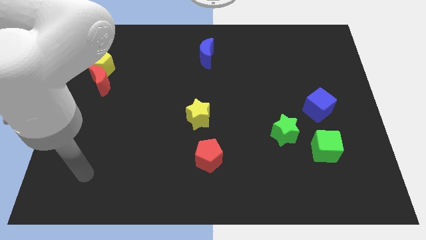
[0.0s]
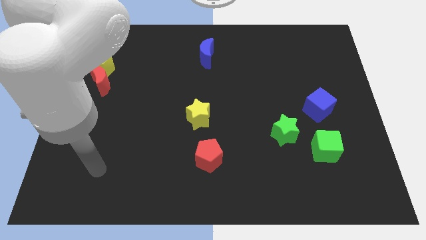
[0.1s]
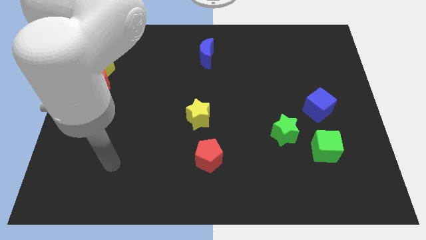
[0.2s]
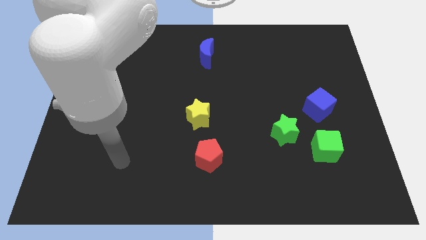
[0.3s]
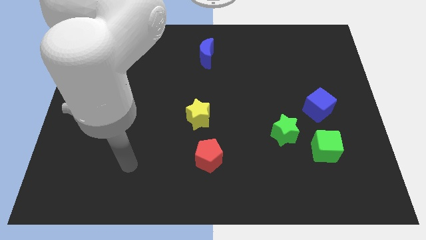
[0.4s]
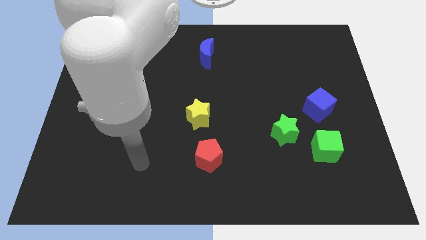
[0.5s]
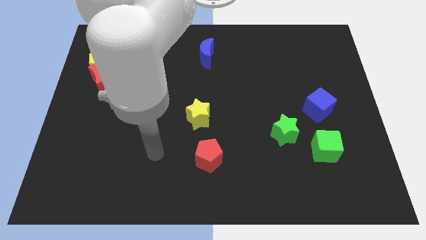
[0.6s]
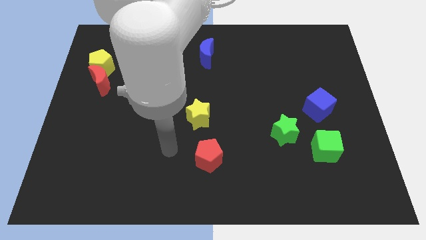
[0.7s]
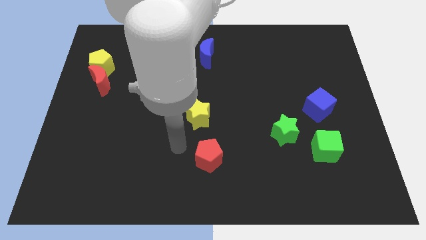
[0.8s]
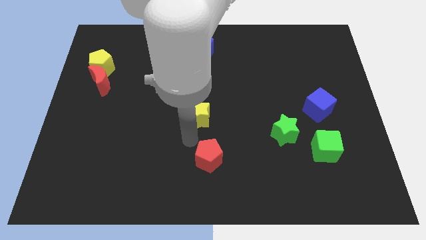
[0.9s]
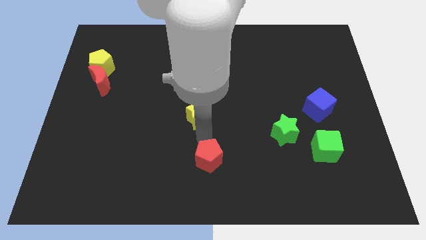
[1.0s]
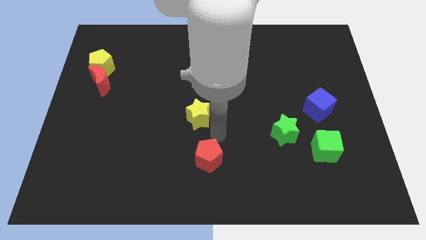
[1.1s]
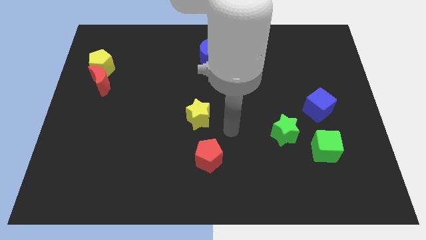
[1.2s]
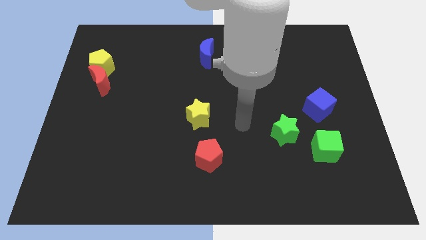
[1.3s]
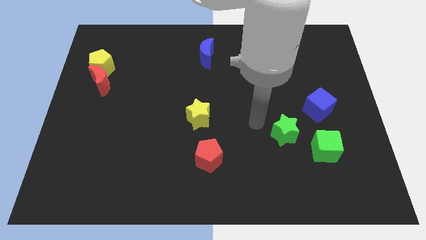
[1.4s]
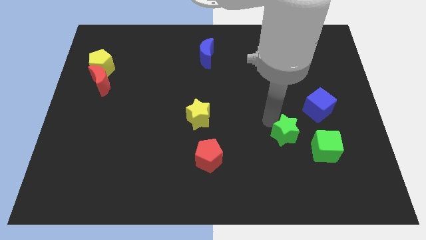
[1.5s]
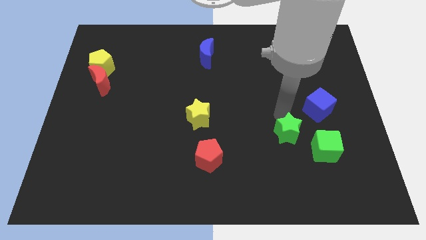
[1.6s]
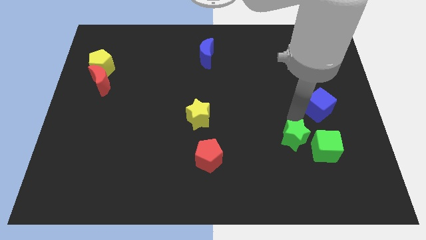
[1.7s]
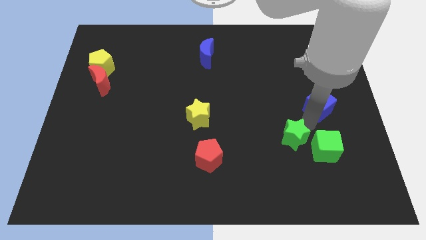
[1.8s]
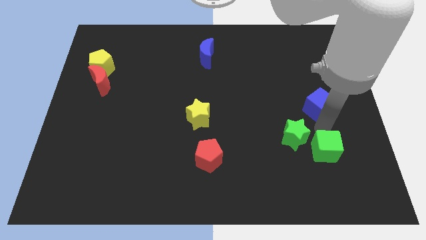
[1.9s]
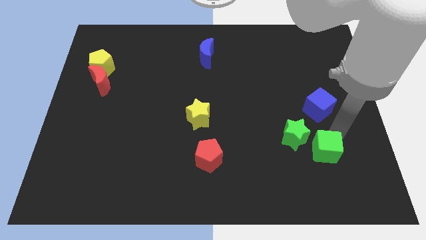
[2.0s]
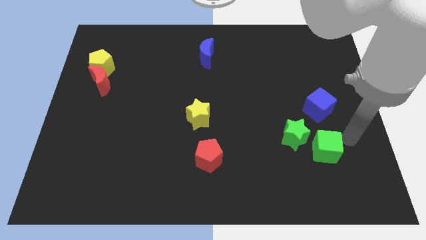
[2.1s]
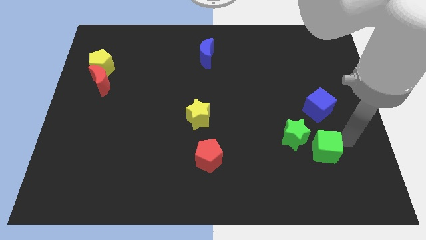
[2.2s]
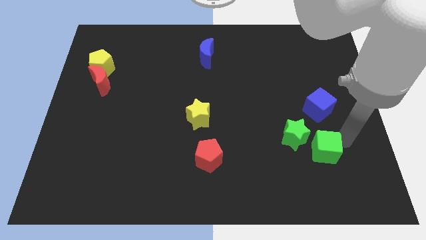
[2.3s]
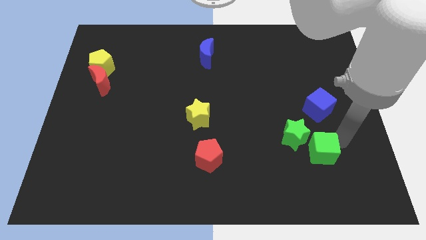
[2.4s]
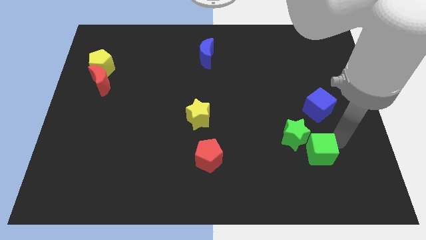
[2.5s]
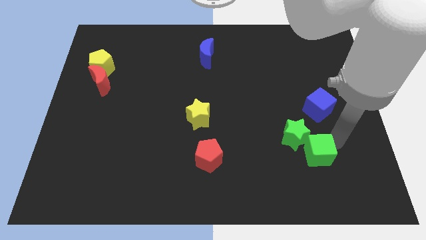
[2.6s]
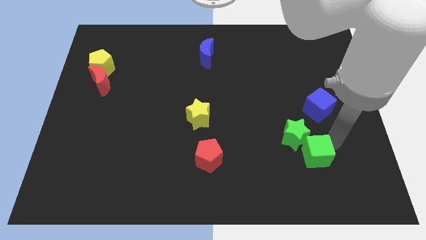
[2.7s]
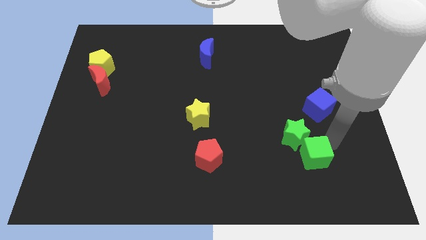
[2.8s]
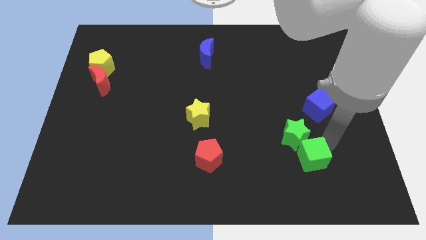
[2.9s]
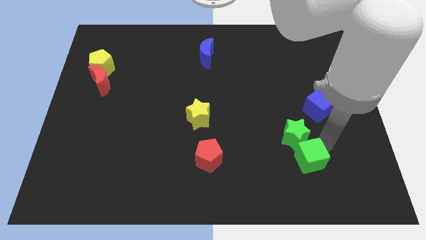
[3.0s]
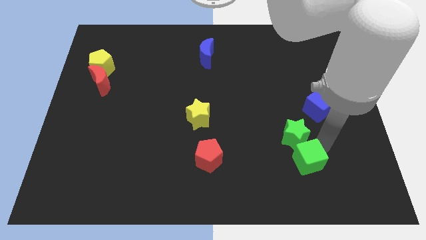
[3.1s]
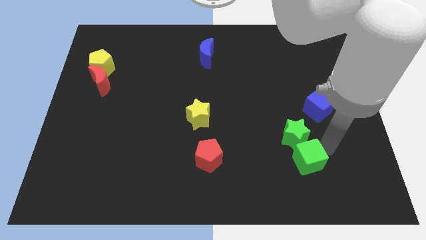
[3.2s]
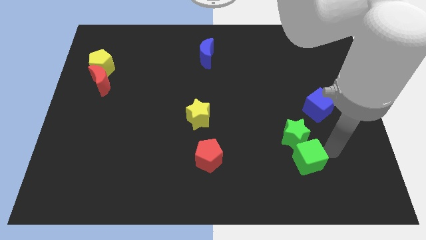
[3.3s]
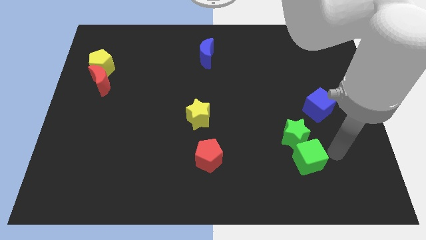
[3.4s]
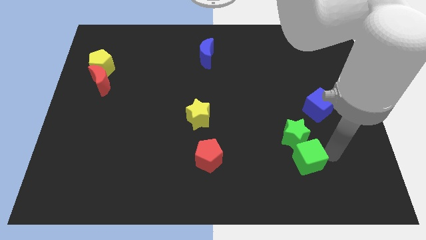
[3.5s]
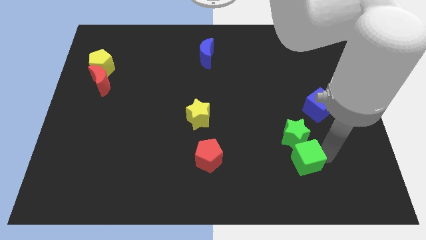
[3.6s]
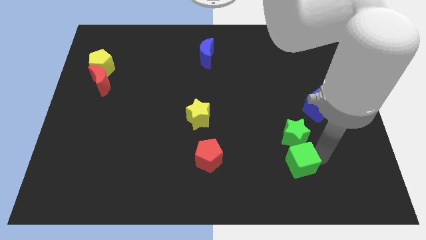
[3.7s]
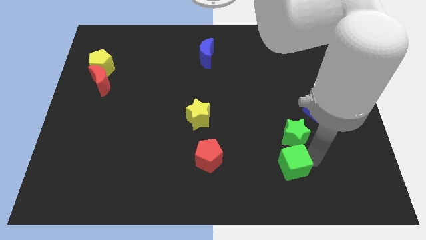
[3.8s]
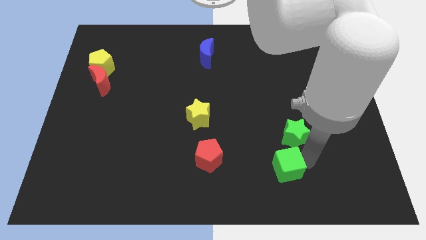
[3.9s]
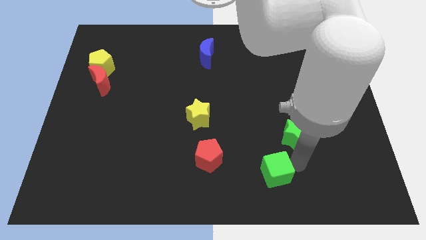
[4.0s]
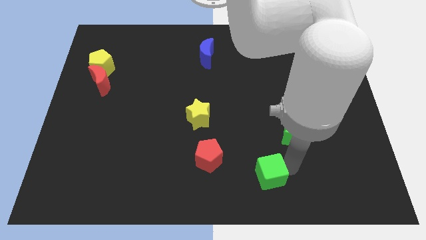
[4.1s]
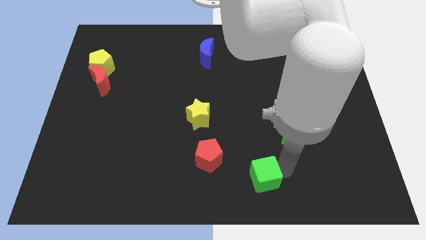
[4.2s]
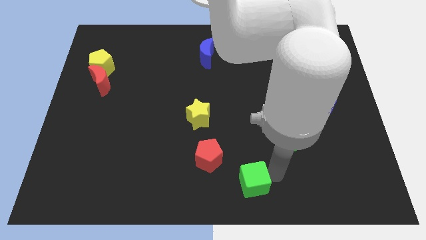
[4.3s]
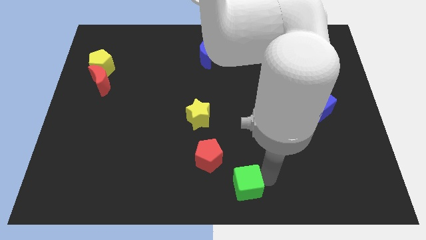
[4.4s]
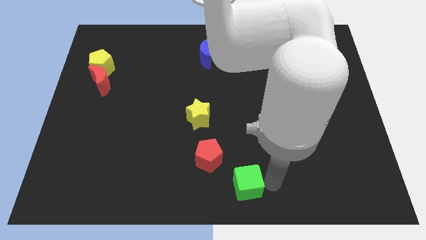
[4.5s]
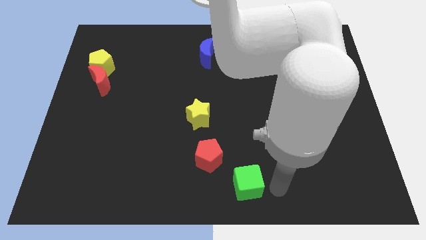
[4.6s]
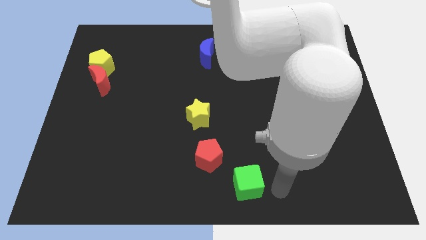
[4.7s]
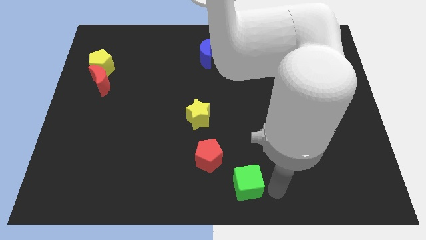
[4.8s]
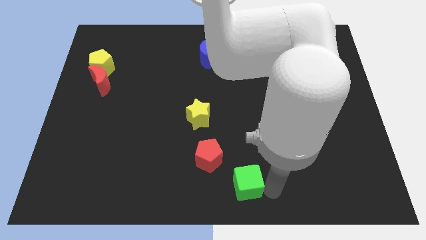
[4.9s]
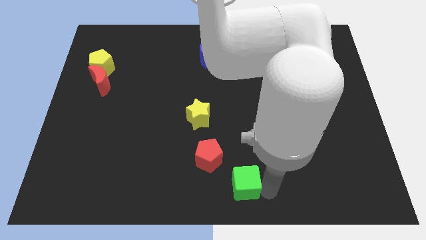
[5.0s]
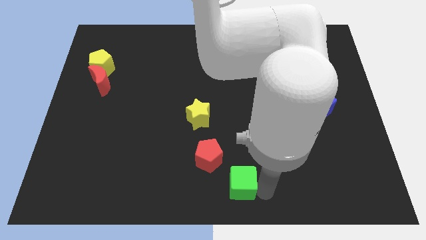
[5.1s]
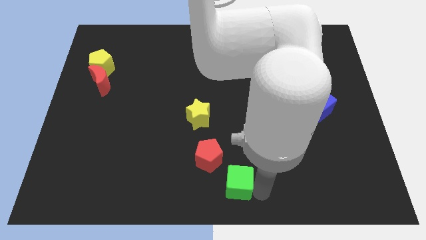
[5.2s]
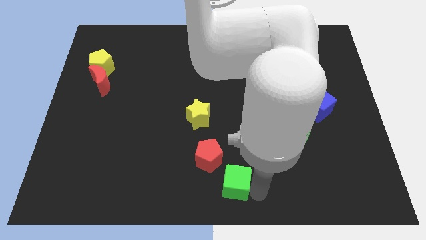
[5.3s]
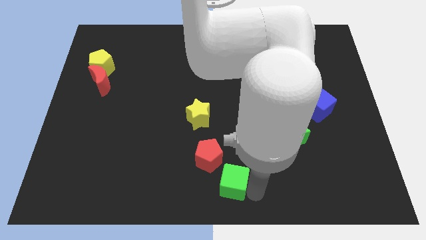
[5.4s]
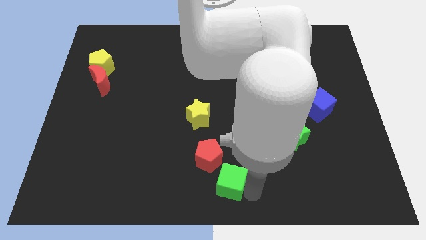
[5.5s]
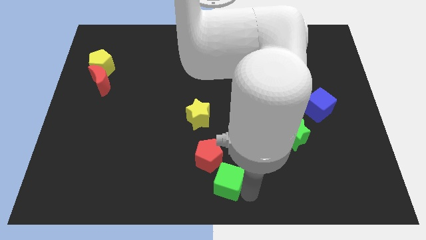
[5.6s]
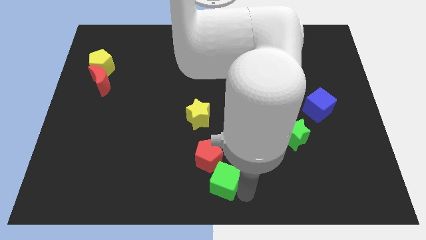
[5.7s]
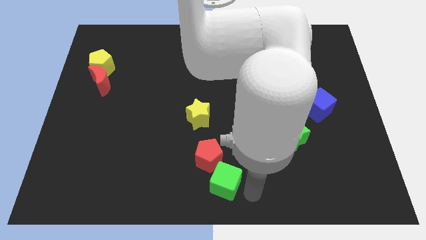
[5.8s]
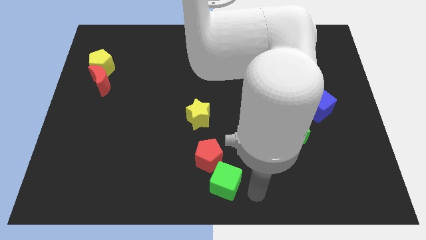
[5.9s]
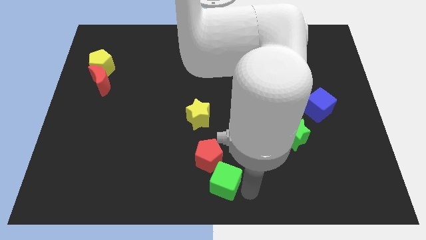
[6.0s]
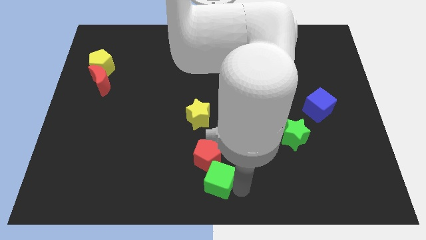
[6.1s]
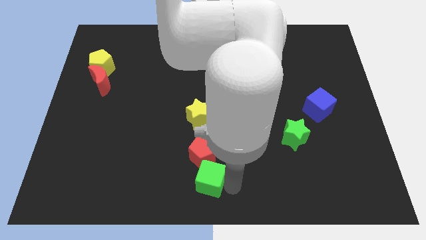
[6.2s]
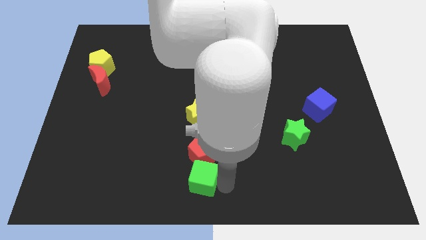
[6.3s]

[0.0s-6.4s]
put the green cube below the yellow star

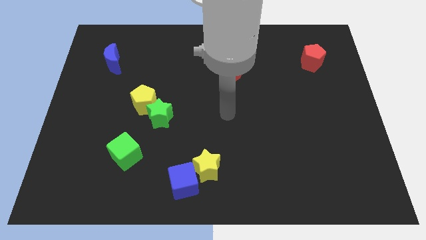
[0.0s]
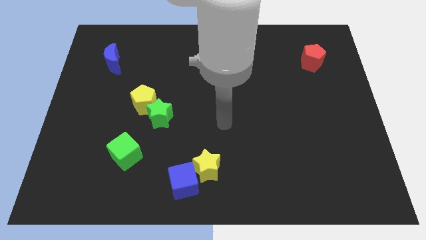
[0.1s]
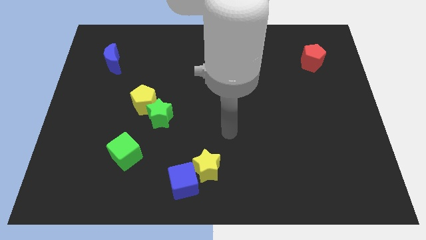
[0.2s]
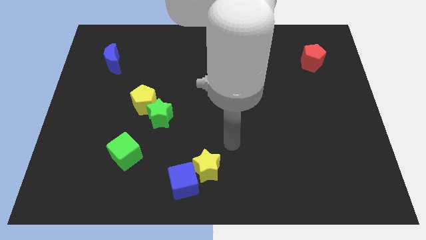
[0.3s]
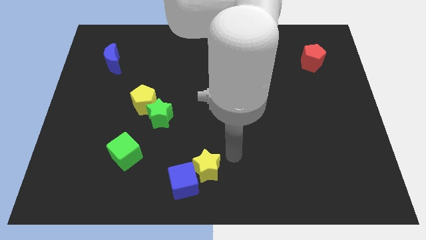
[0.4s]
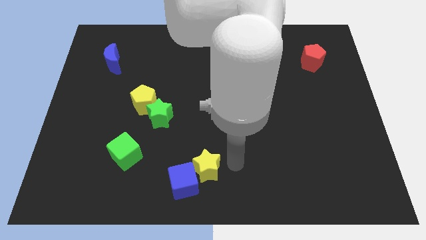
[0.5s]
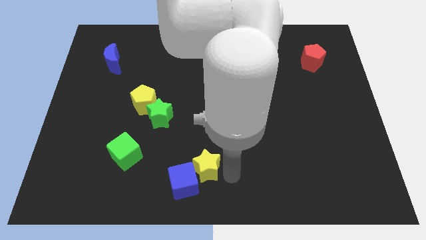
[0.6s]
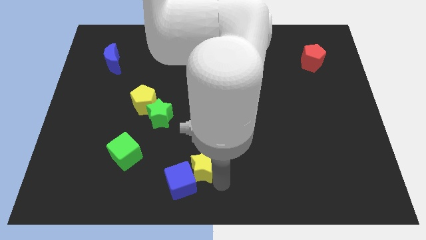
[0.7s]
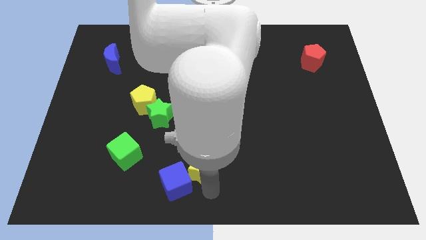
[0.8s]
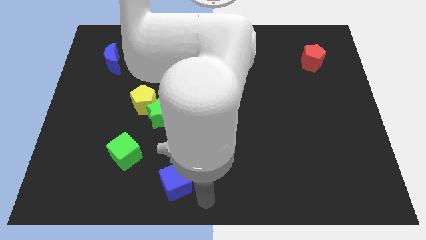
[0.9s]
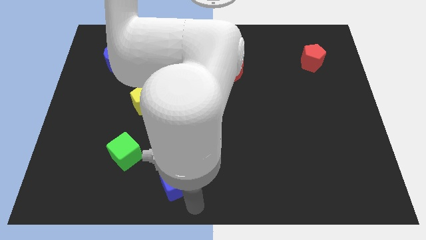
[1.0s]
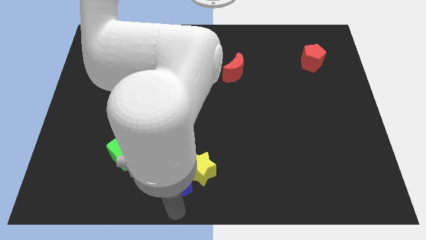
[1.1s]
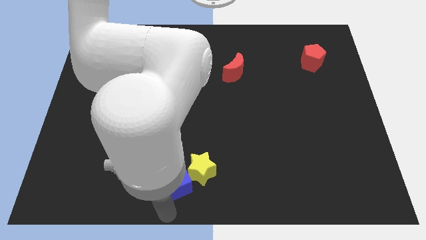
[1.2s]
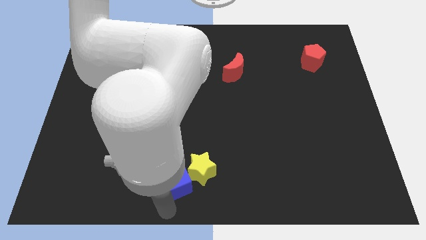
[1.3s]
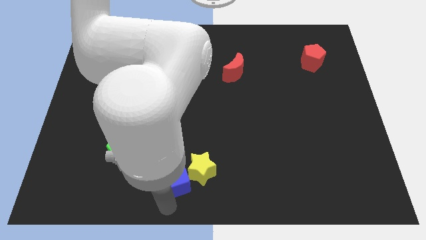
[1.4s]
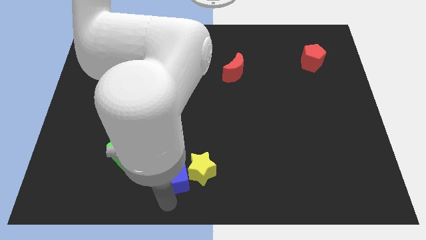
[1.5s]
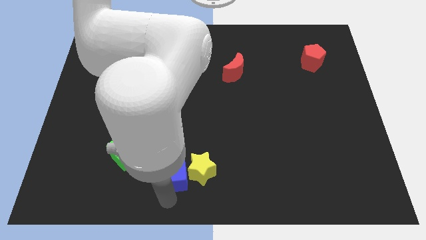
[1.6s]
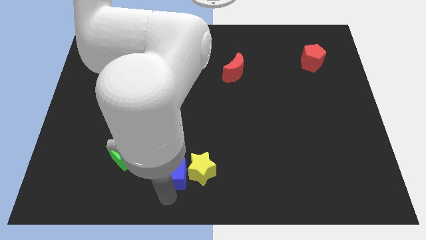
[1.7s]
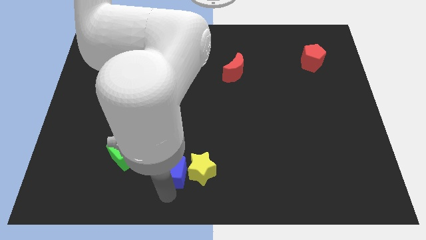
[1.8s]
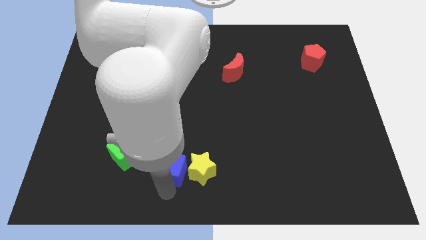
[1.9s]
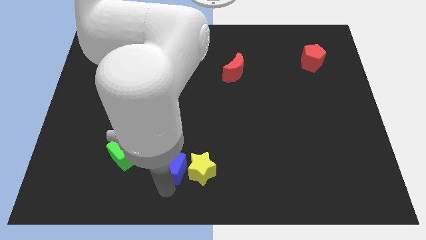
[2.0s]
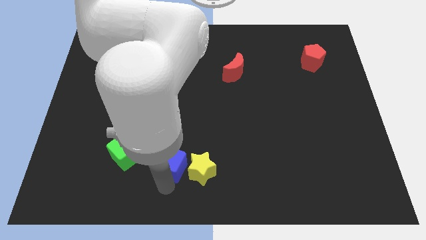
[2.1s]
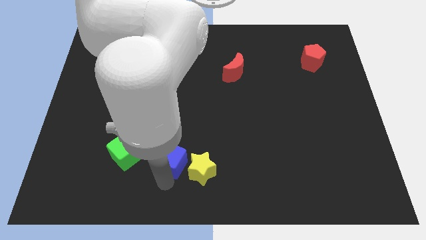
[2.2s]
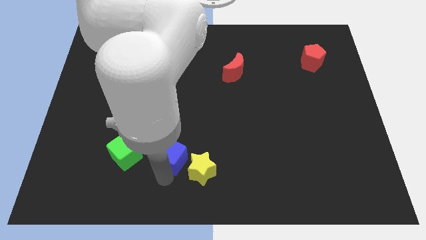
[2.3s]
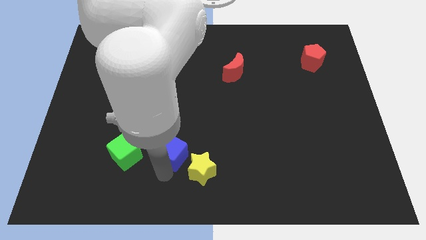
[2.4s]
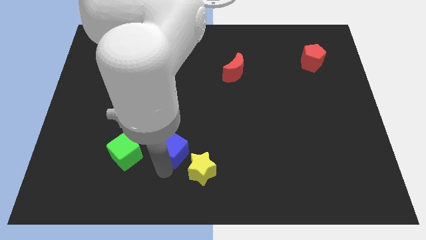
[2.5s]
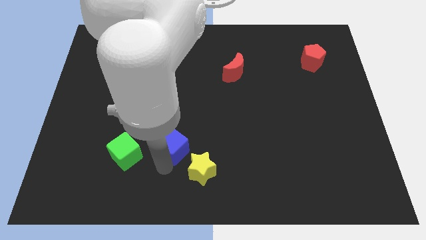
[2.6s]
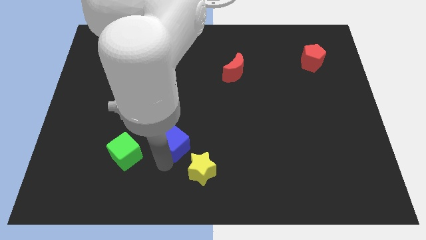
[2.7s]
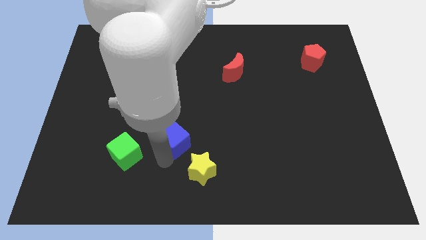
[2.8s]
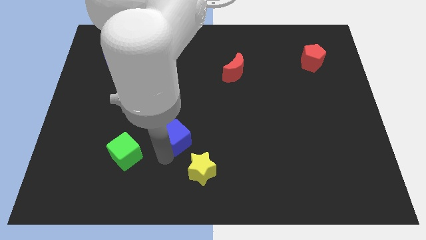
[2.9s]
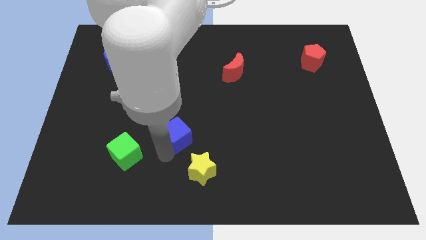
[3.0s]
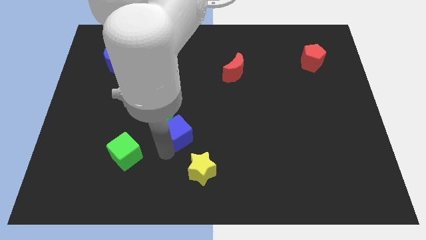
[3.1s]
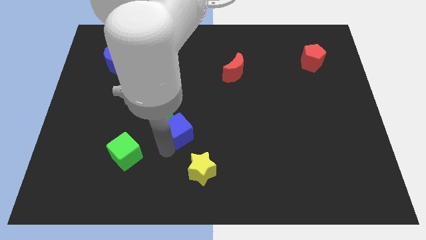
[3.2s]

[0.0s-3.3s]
move the blue cube to the right side of the green star
